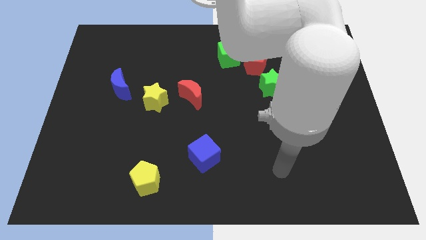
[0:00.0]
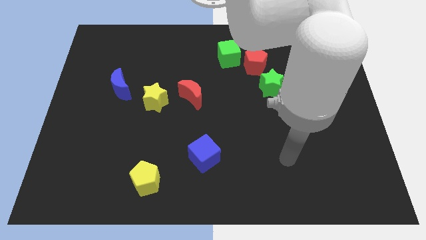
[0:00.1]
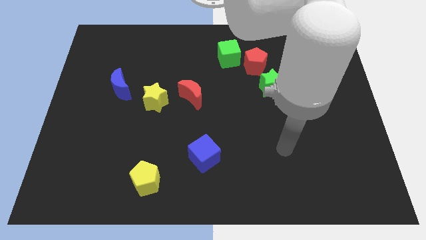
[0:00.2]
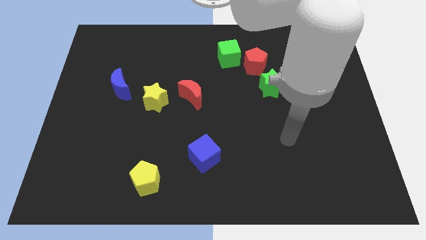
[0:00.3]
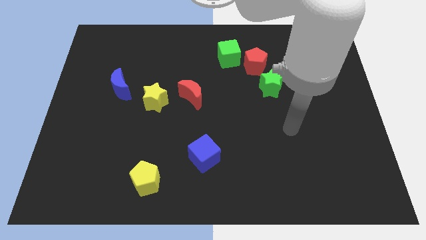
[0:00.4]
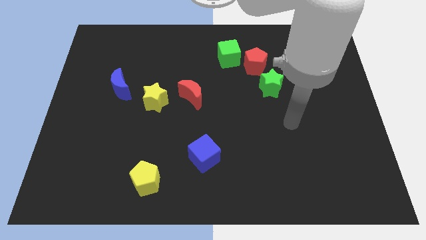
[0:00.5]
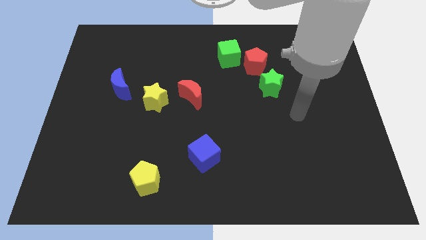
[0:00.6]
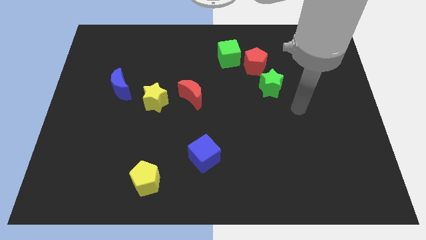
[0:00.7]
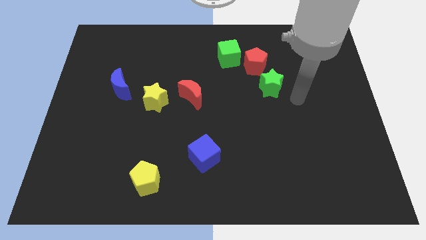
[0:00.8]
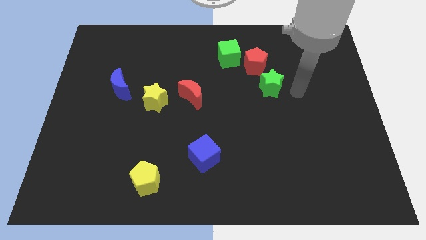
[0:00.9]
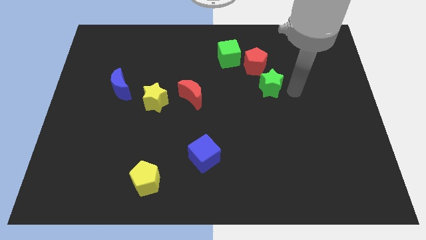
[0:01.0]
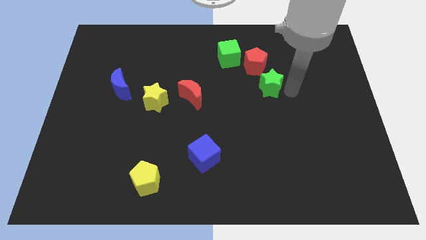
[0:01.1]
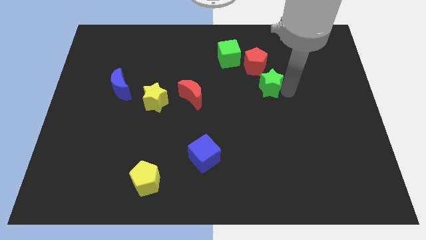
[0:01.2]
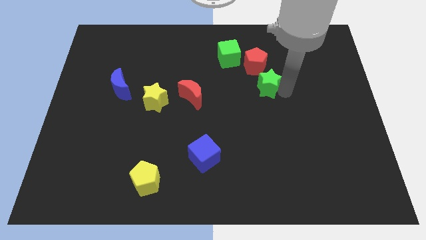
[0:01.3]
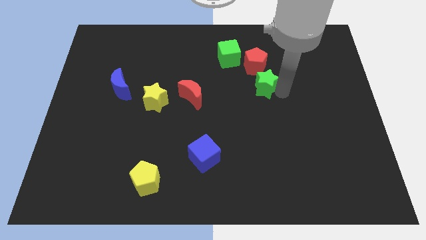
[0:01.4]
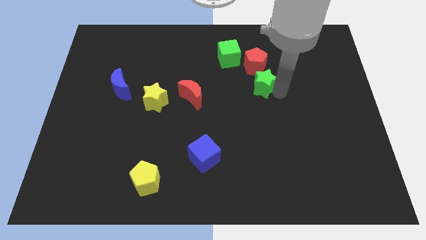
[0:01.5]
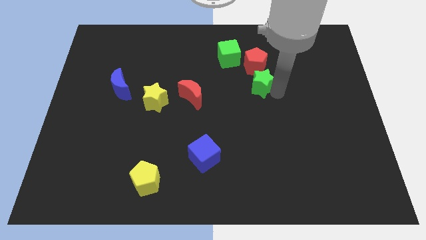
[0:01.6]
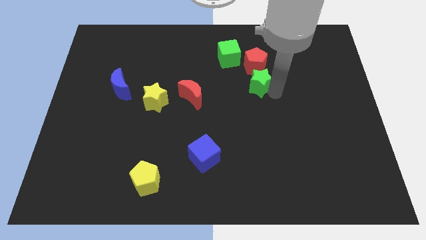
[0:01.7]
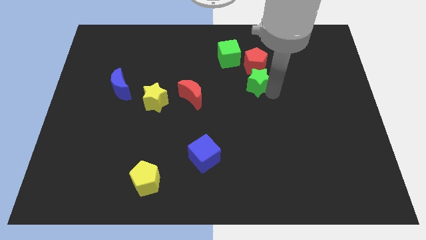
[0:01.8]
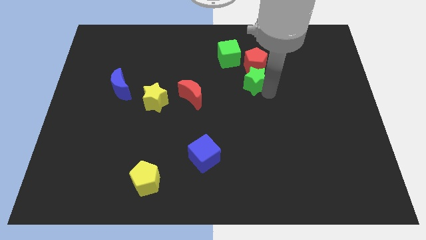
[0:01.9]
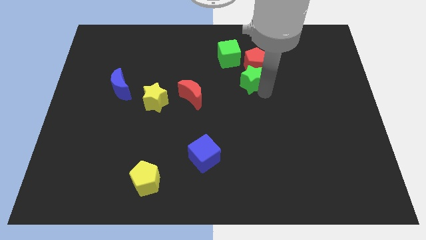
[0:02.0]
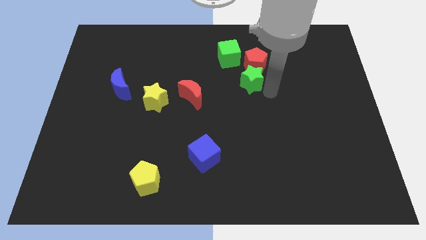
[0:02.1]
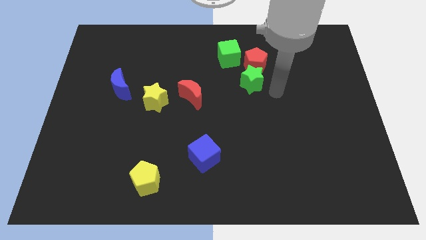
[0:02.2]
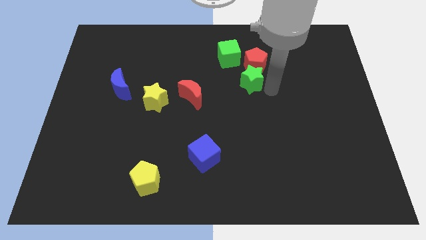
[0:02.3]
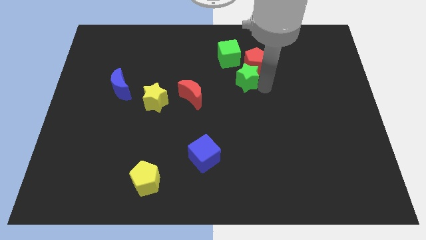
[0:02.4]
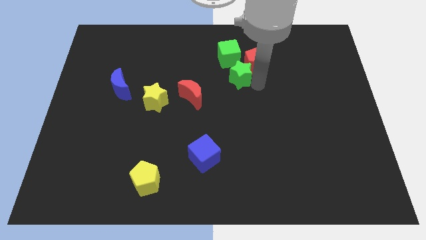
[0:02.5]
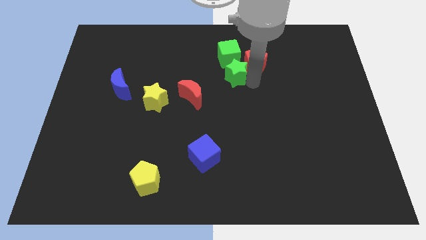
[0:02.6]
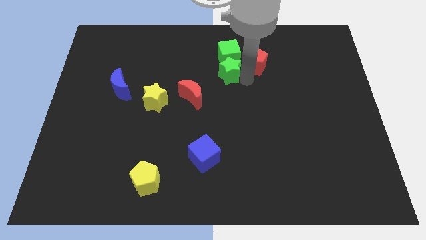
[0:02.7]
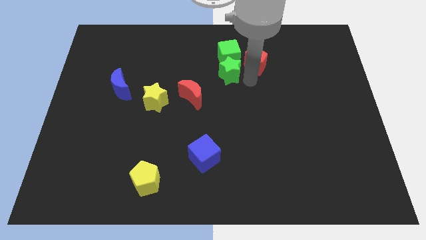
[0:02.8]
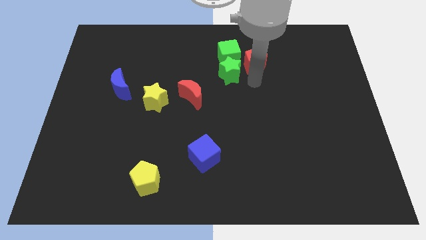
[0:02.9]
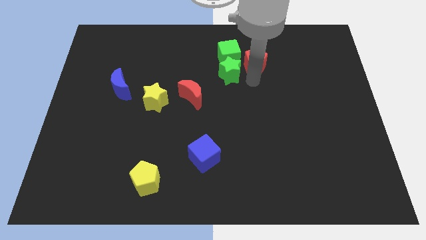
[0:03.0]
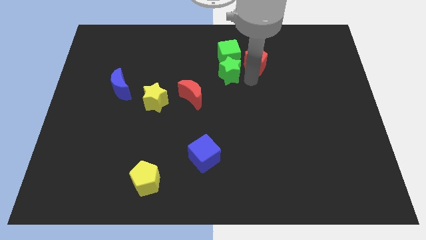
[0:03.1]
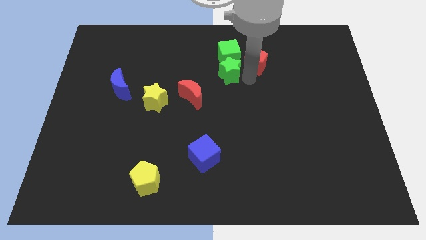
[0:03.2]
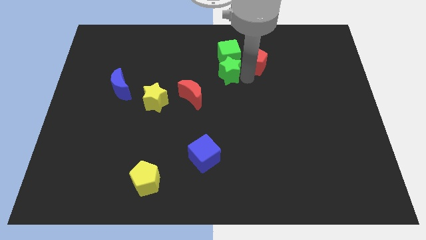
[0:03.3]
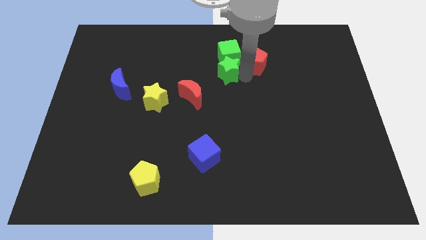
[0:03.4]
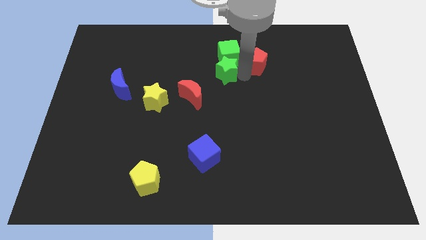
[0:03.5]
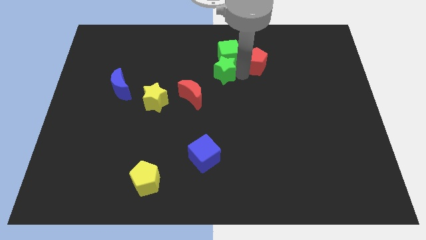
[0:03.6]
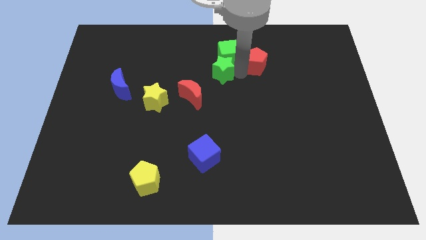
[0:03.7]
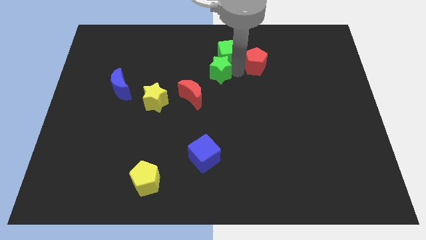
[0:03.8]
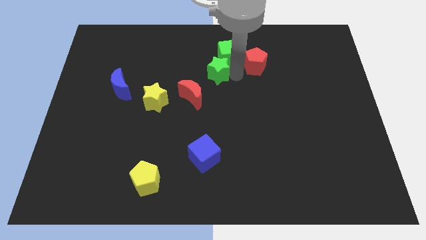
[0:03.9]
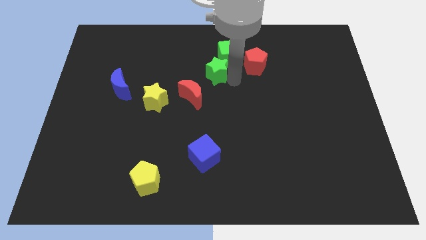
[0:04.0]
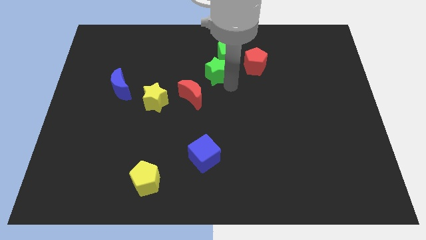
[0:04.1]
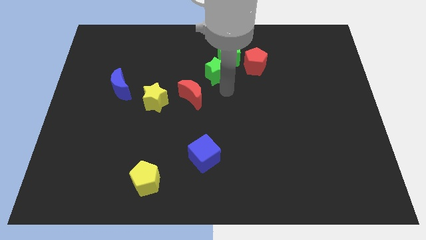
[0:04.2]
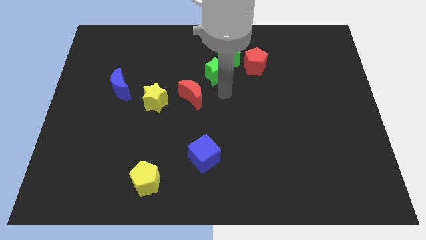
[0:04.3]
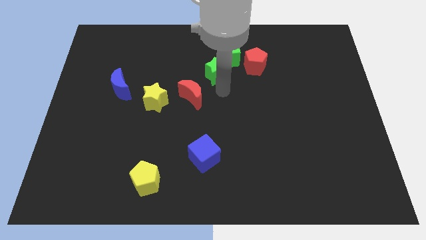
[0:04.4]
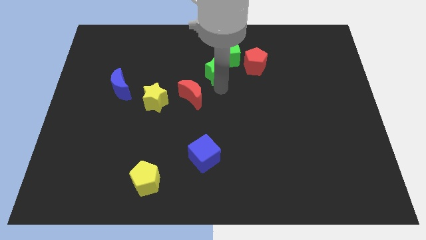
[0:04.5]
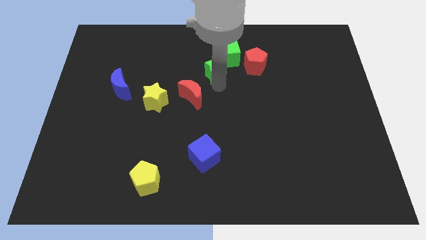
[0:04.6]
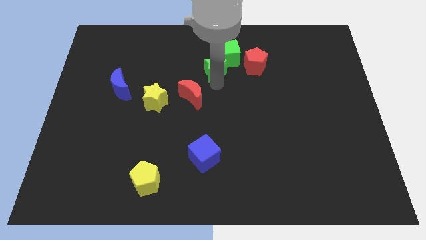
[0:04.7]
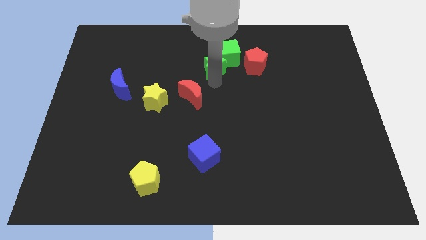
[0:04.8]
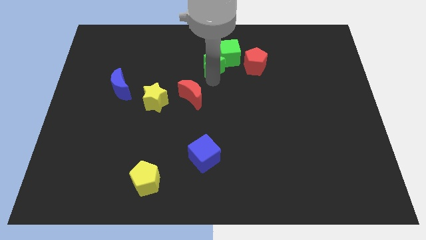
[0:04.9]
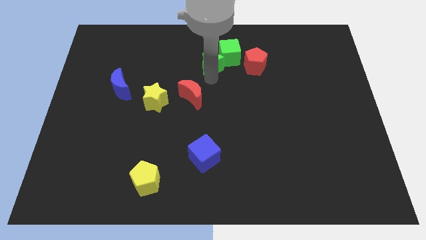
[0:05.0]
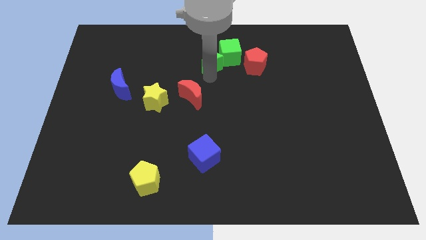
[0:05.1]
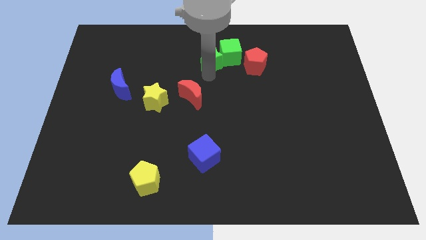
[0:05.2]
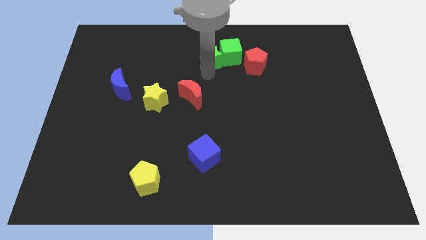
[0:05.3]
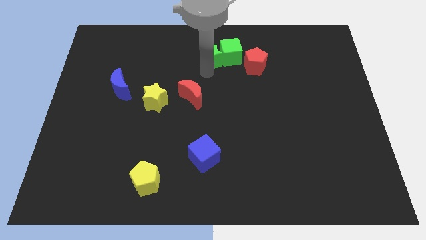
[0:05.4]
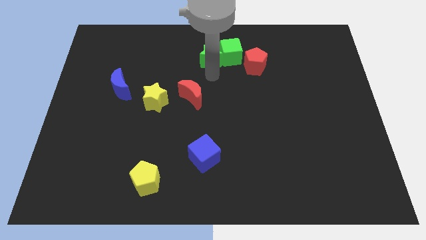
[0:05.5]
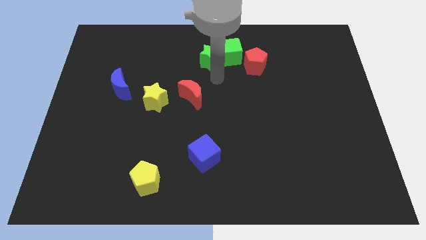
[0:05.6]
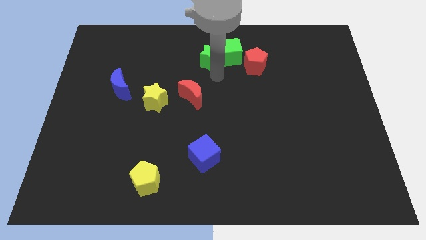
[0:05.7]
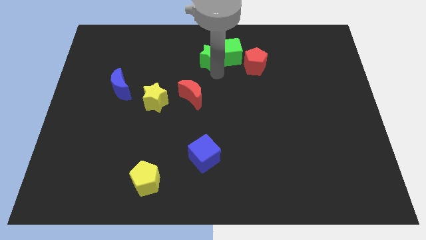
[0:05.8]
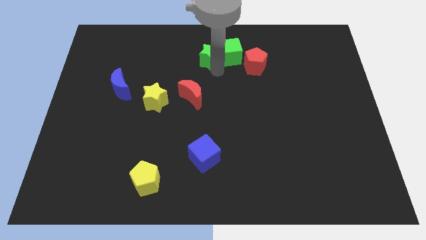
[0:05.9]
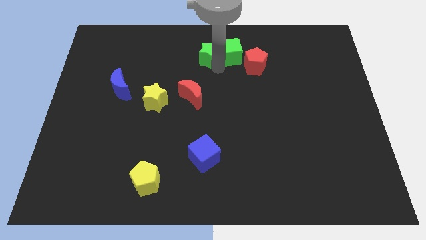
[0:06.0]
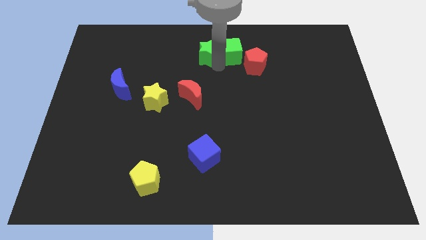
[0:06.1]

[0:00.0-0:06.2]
move the green star to the towards your base

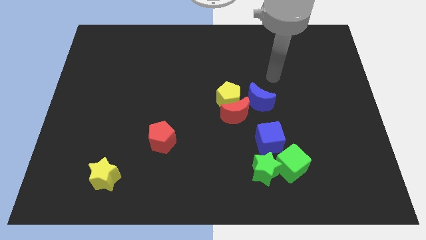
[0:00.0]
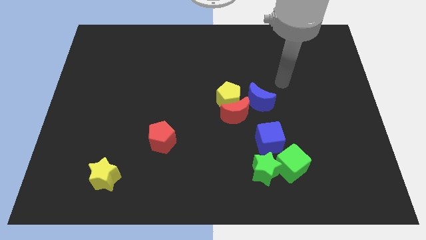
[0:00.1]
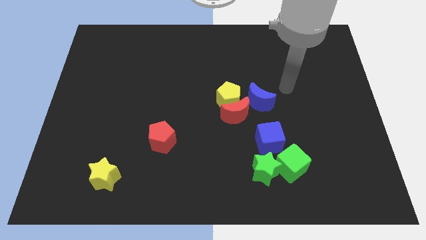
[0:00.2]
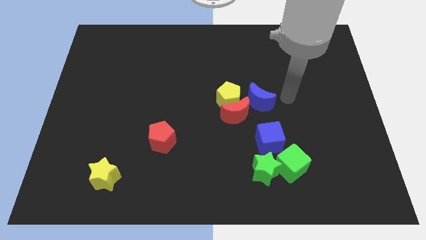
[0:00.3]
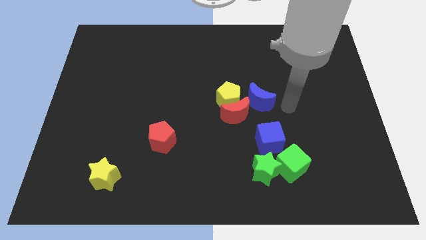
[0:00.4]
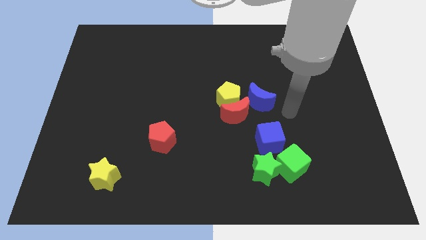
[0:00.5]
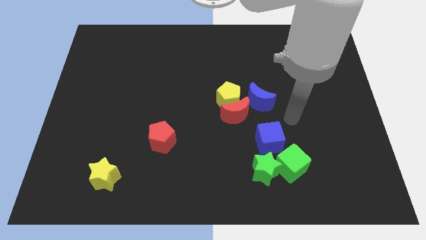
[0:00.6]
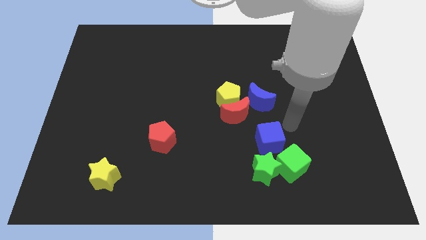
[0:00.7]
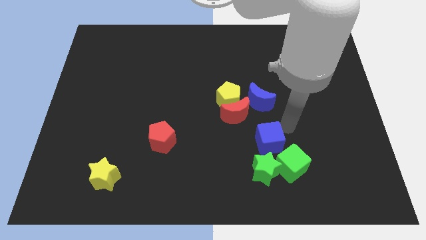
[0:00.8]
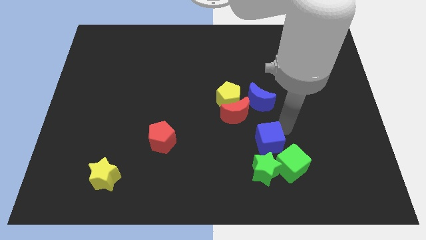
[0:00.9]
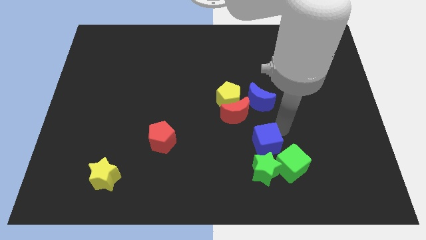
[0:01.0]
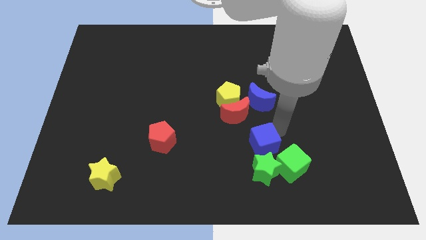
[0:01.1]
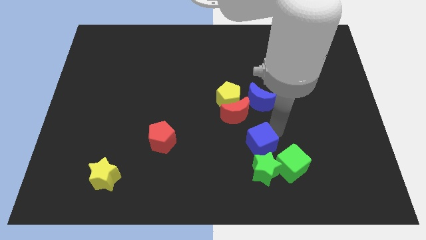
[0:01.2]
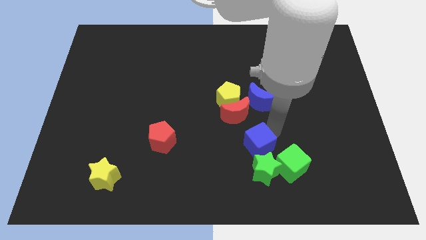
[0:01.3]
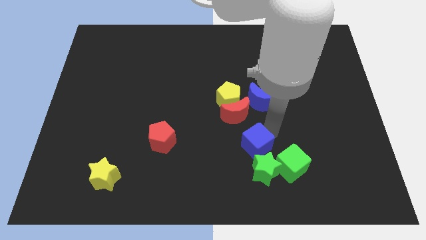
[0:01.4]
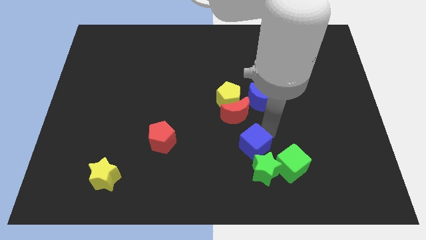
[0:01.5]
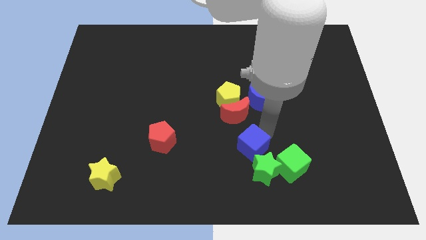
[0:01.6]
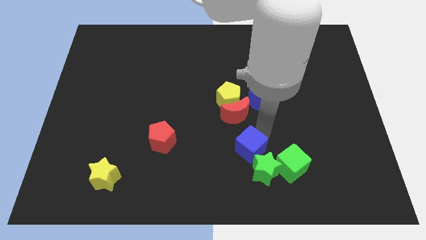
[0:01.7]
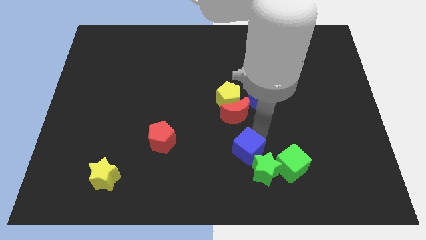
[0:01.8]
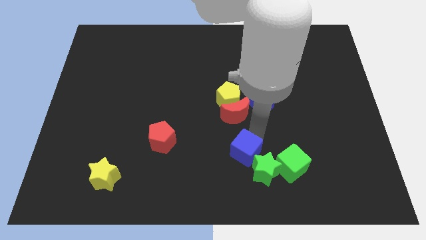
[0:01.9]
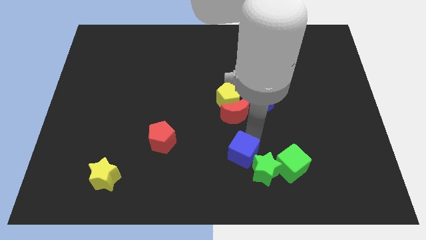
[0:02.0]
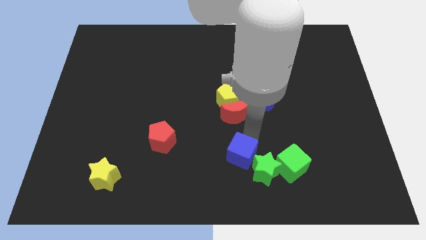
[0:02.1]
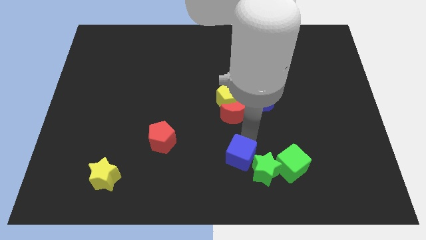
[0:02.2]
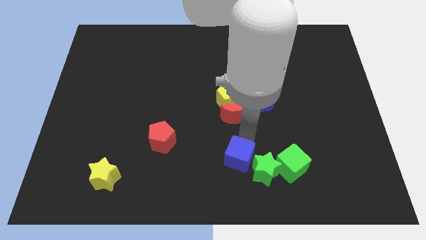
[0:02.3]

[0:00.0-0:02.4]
push the blue cube to the bottom side
